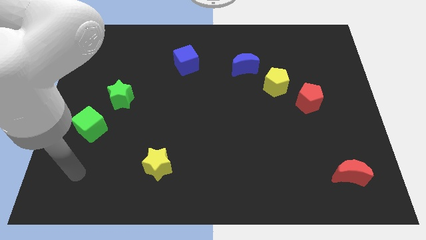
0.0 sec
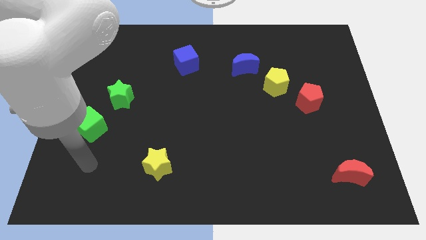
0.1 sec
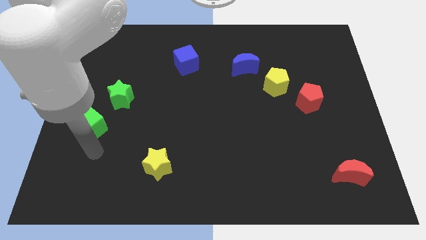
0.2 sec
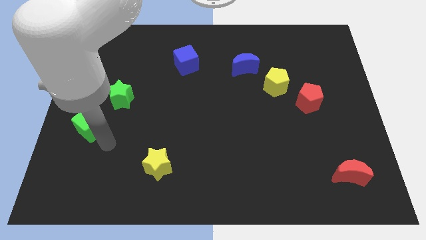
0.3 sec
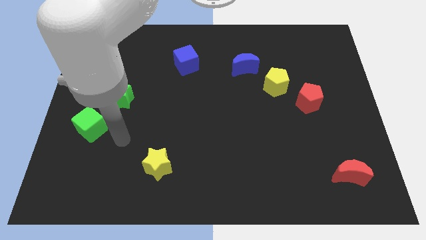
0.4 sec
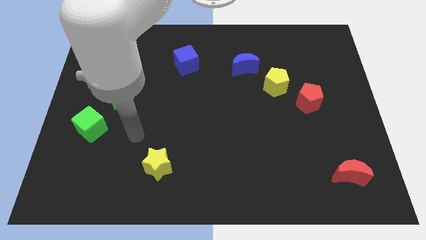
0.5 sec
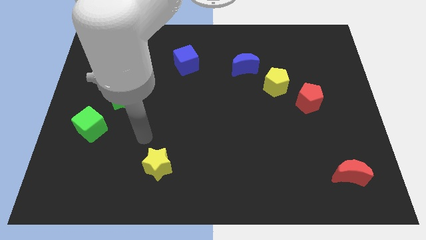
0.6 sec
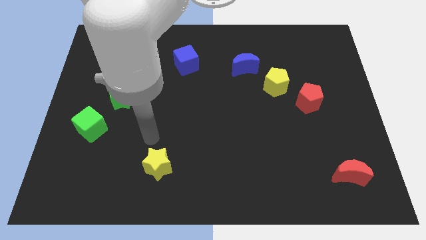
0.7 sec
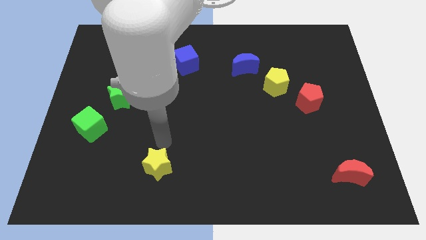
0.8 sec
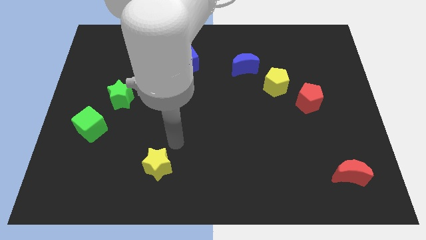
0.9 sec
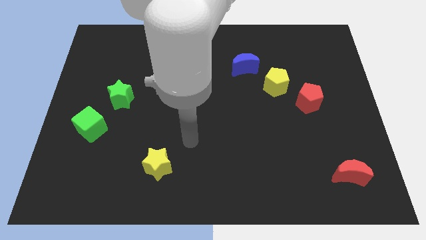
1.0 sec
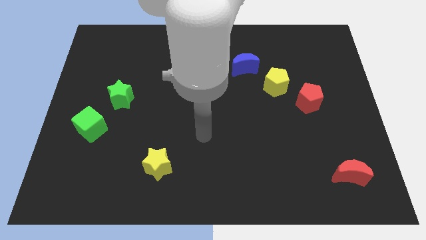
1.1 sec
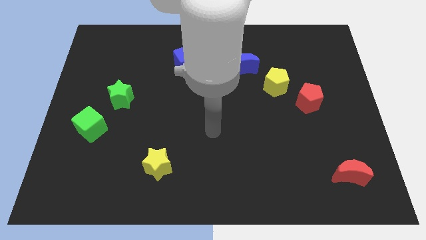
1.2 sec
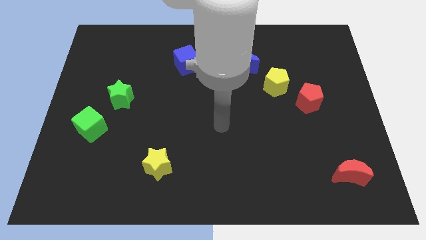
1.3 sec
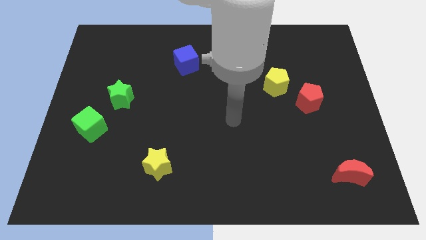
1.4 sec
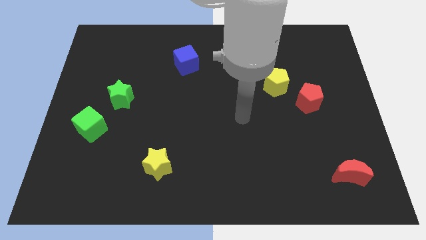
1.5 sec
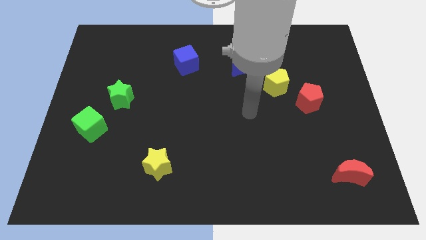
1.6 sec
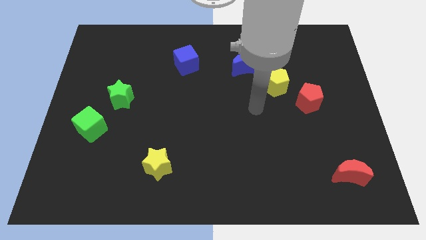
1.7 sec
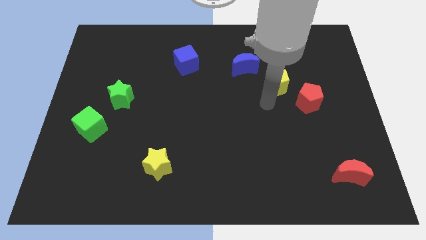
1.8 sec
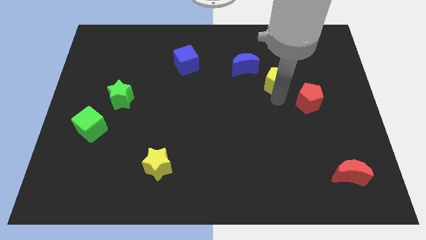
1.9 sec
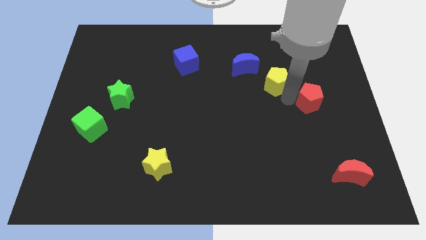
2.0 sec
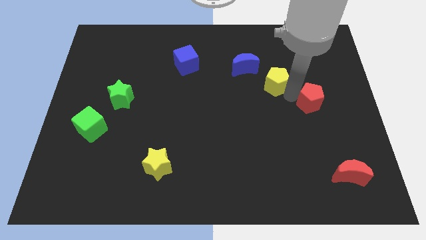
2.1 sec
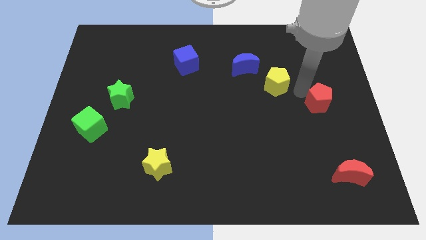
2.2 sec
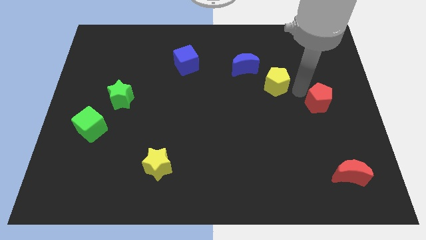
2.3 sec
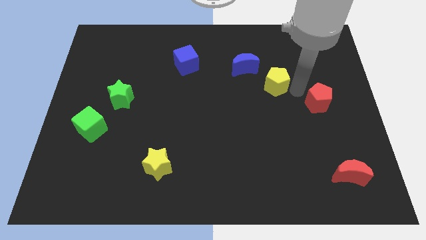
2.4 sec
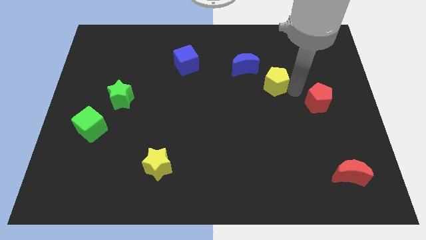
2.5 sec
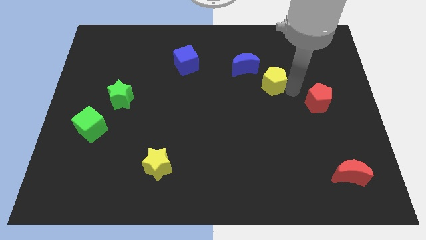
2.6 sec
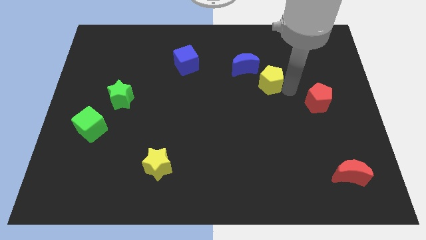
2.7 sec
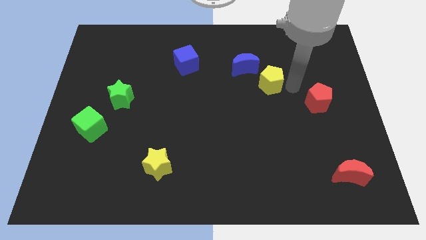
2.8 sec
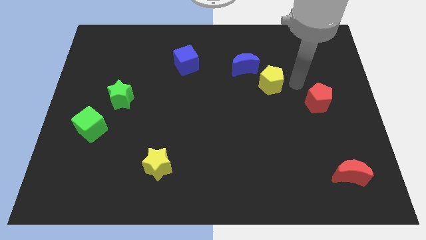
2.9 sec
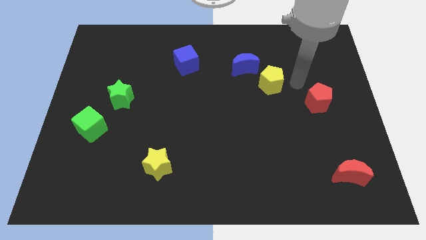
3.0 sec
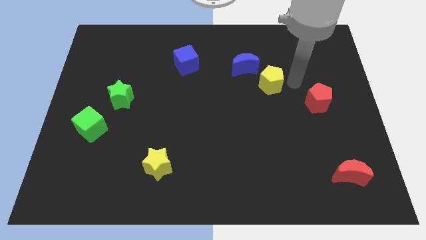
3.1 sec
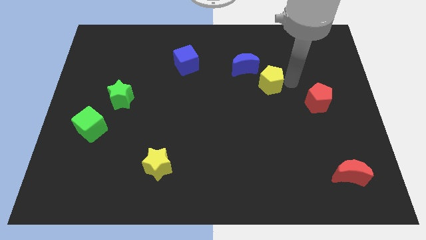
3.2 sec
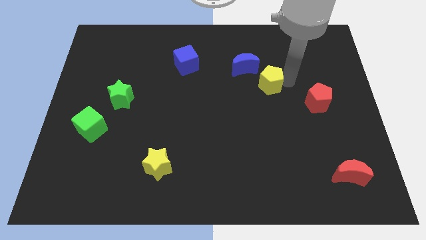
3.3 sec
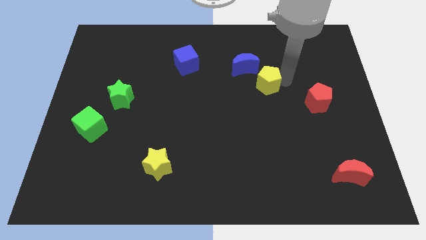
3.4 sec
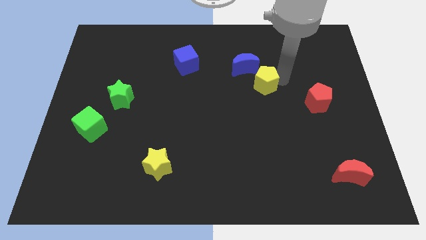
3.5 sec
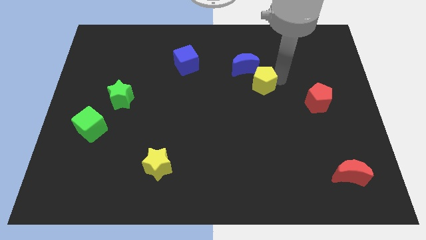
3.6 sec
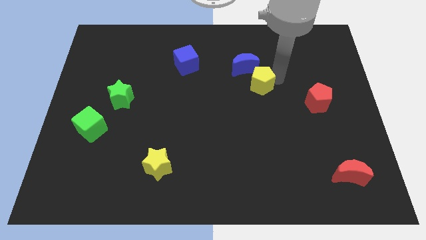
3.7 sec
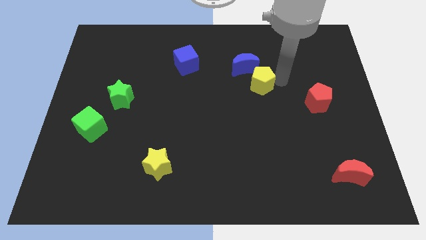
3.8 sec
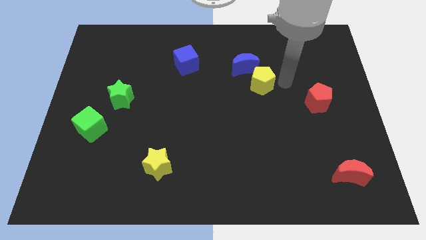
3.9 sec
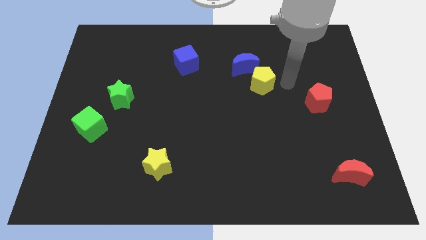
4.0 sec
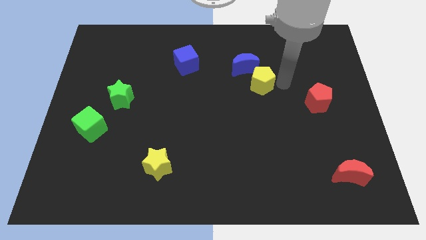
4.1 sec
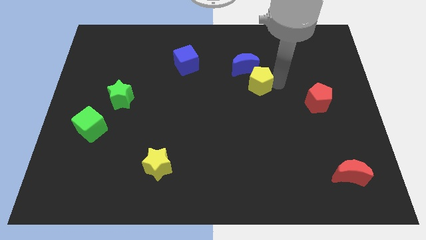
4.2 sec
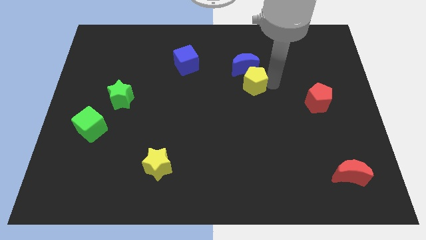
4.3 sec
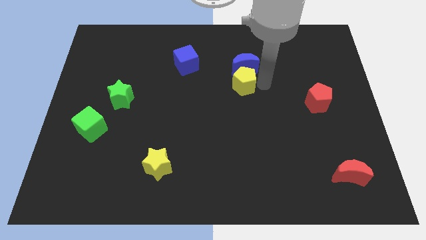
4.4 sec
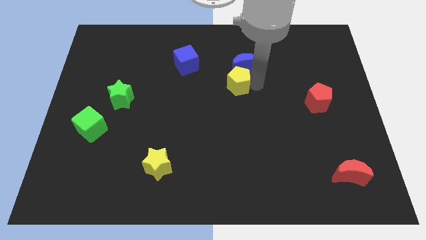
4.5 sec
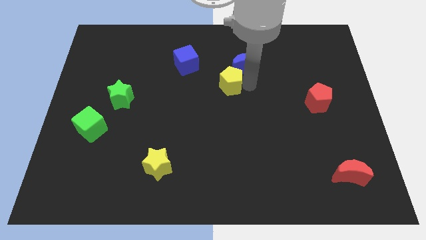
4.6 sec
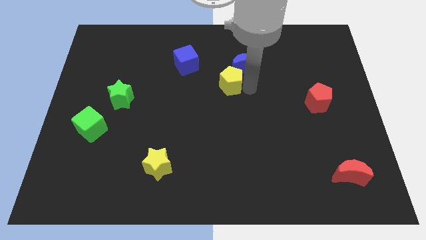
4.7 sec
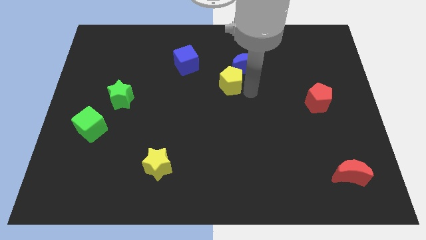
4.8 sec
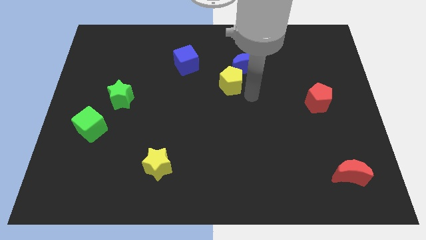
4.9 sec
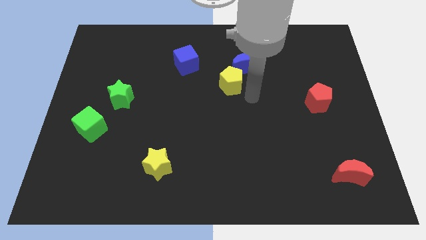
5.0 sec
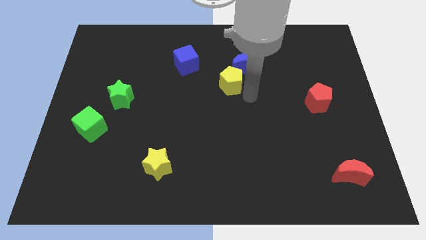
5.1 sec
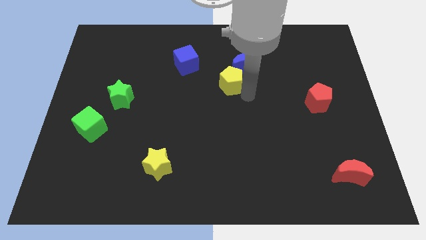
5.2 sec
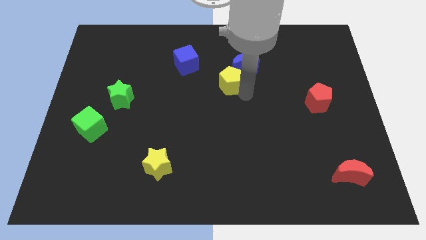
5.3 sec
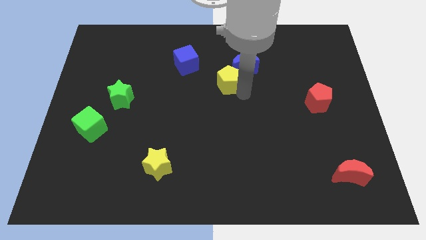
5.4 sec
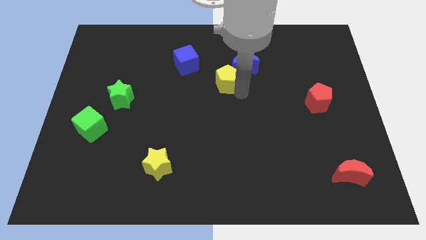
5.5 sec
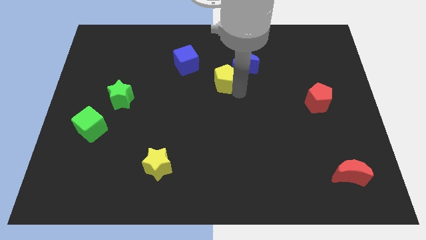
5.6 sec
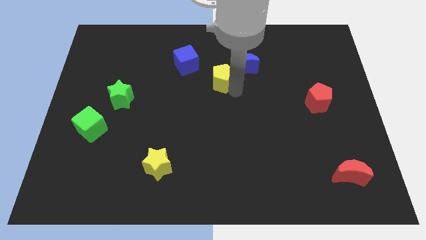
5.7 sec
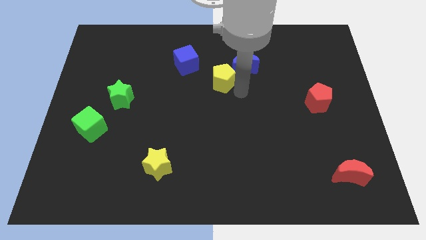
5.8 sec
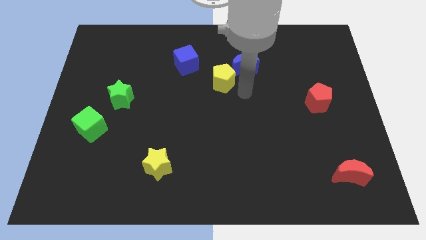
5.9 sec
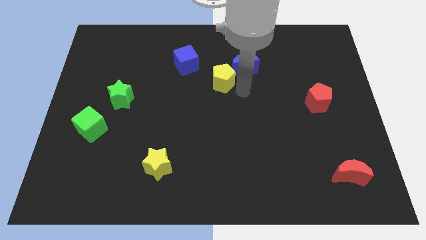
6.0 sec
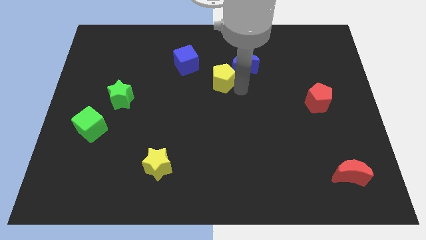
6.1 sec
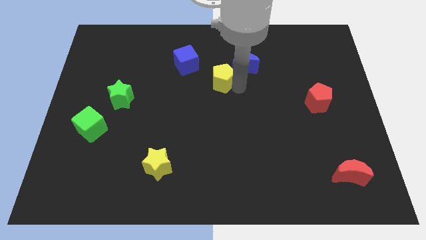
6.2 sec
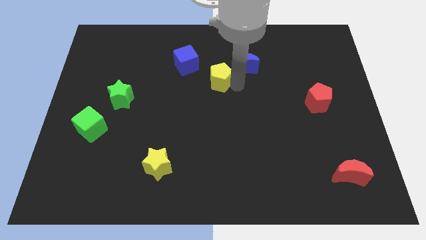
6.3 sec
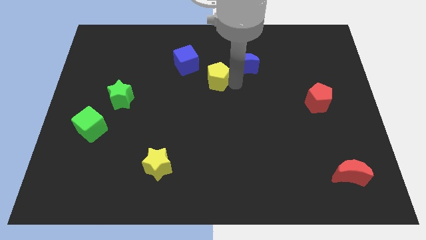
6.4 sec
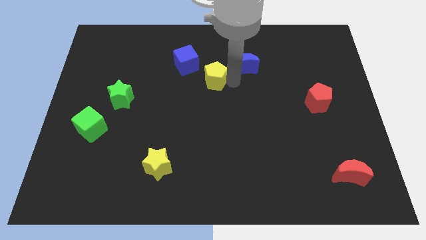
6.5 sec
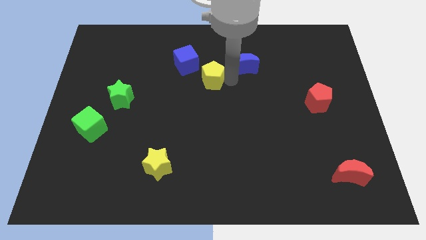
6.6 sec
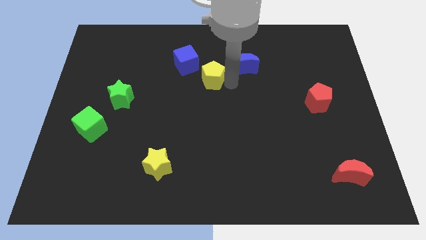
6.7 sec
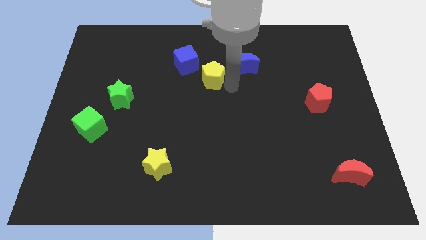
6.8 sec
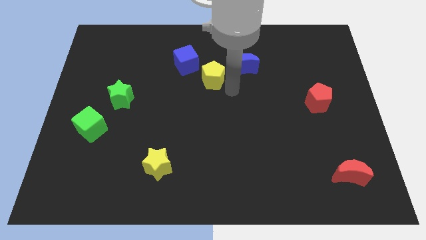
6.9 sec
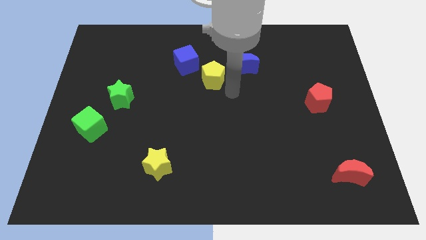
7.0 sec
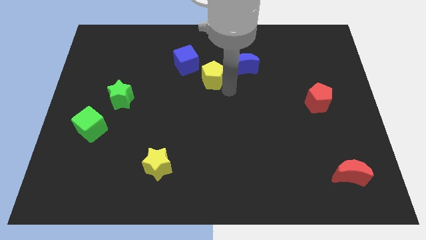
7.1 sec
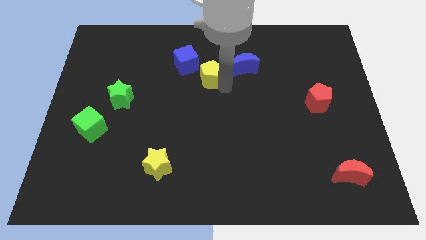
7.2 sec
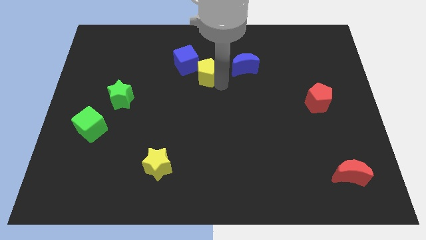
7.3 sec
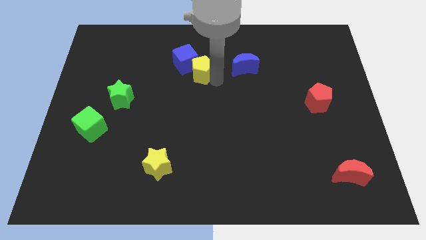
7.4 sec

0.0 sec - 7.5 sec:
slide the yellow pentagon next to the blue cube
